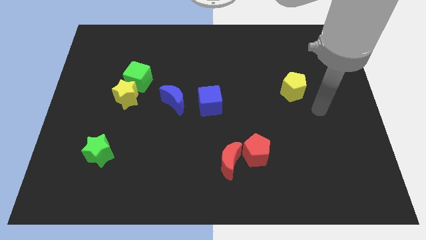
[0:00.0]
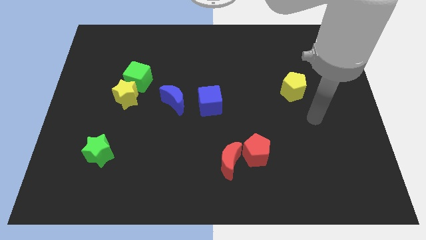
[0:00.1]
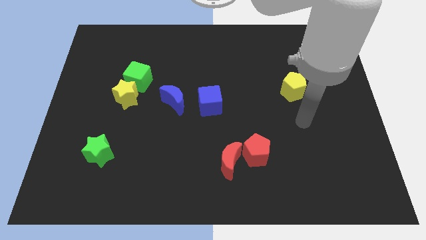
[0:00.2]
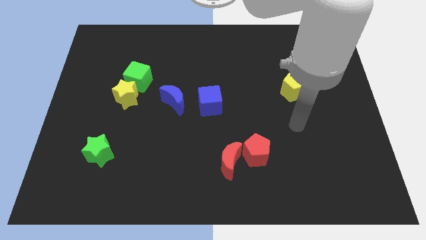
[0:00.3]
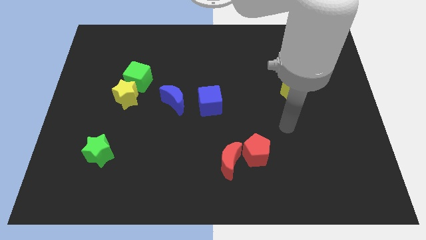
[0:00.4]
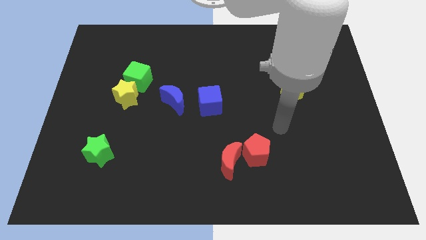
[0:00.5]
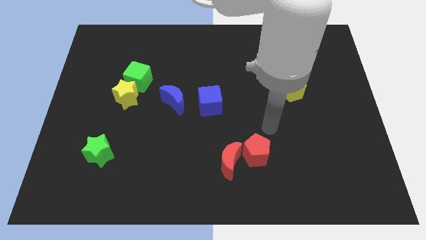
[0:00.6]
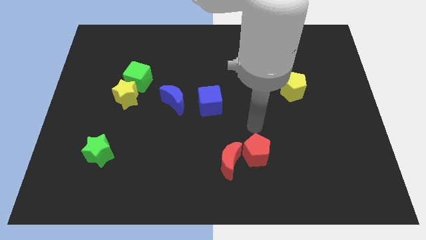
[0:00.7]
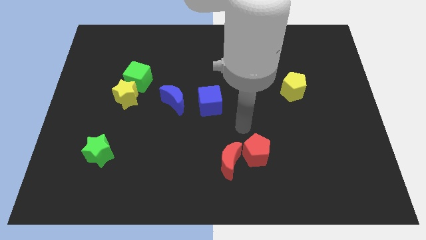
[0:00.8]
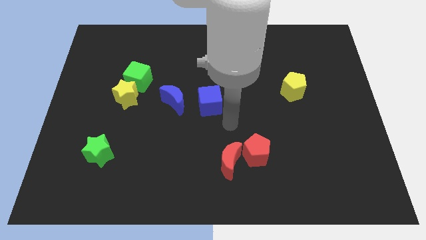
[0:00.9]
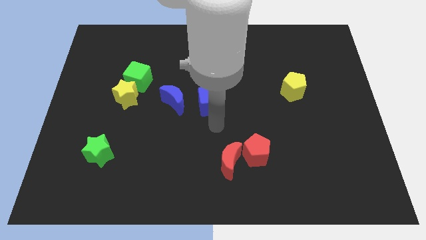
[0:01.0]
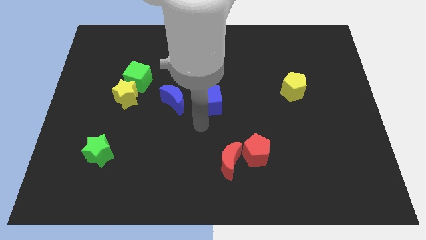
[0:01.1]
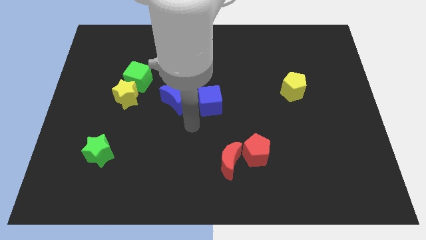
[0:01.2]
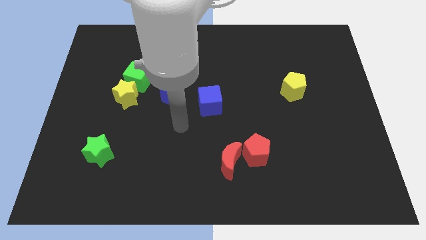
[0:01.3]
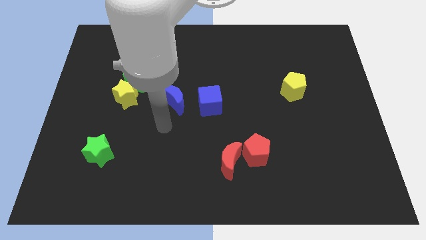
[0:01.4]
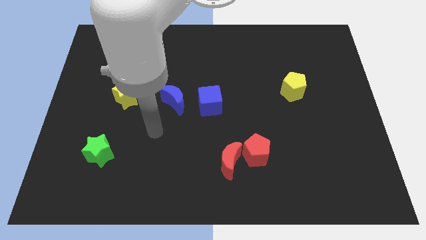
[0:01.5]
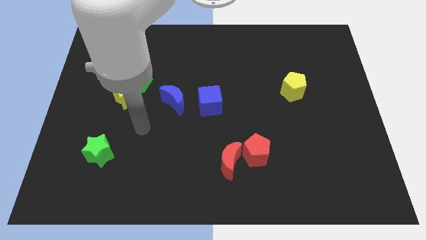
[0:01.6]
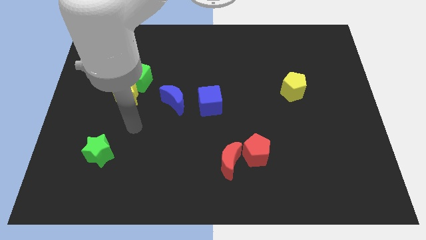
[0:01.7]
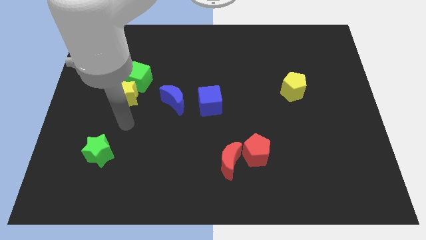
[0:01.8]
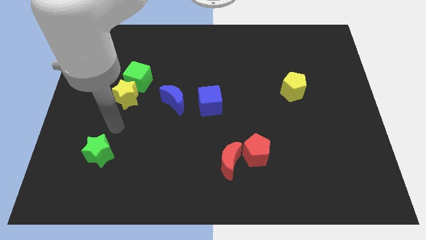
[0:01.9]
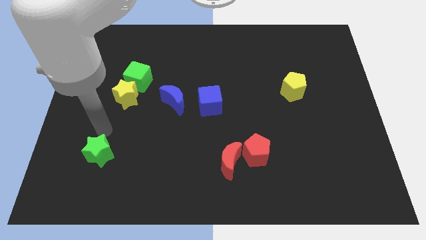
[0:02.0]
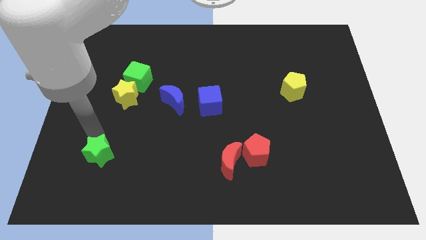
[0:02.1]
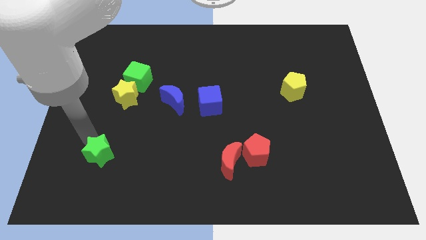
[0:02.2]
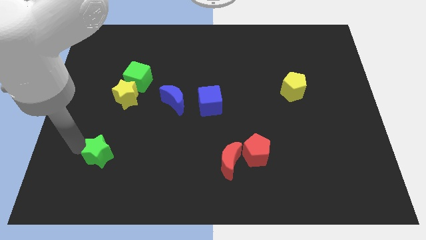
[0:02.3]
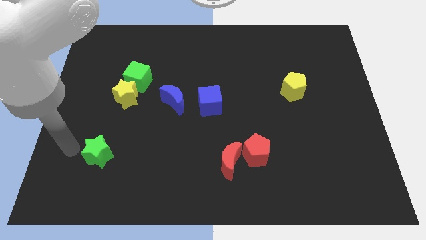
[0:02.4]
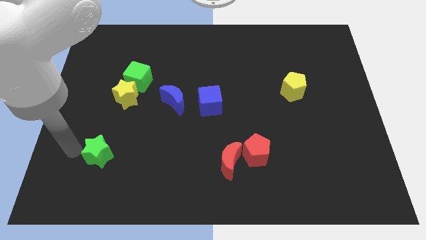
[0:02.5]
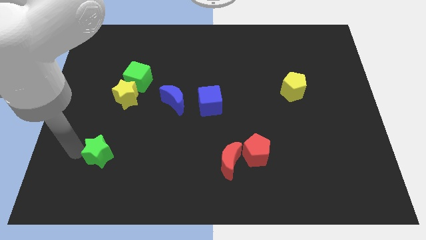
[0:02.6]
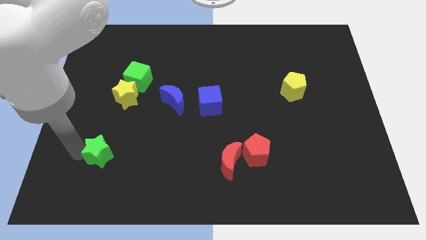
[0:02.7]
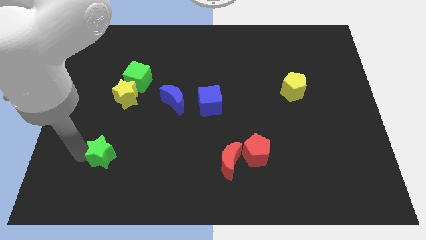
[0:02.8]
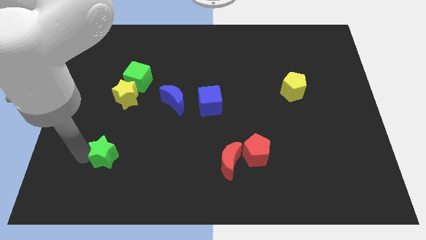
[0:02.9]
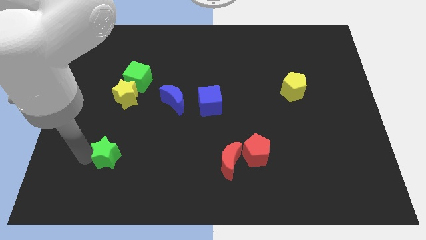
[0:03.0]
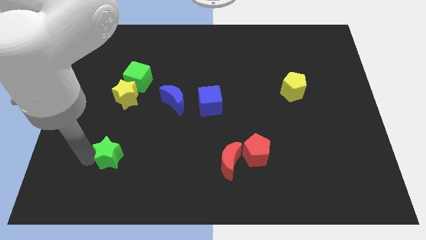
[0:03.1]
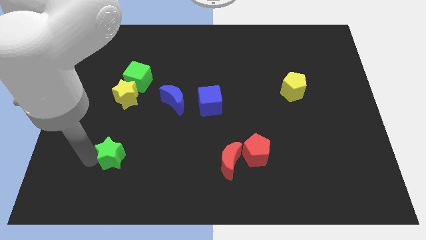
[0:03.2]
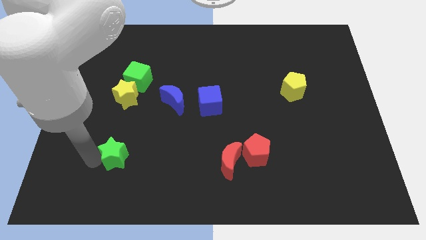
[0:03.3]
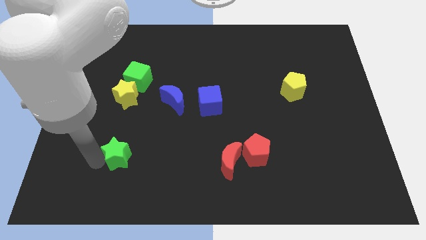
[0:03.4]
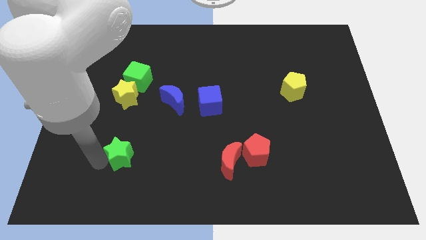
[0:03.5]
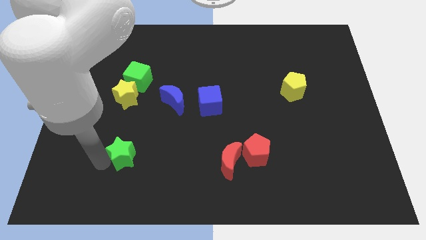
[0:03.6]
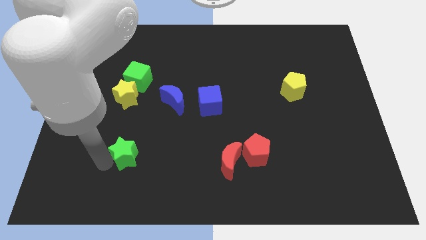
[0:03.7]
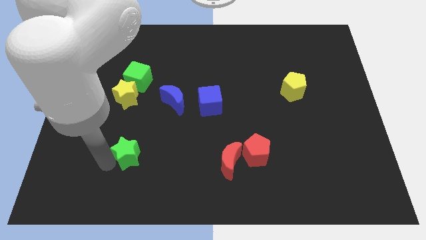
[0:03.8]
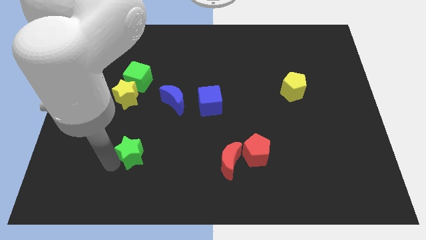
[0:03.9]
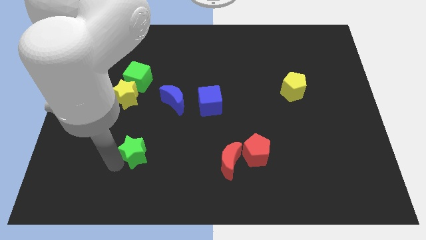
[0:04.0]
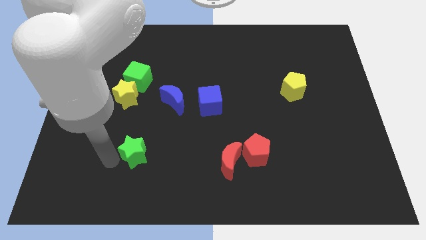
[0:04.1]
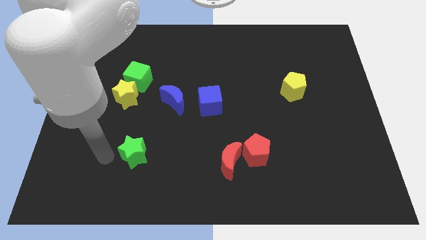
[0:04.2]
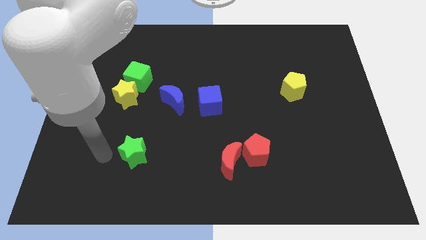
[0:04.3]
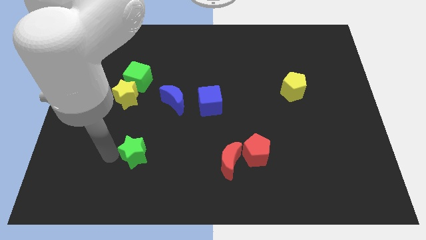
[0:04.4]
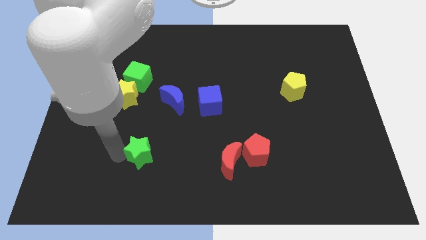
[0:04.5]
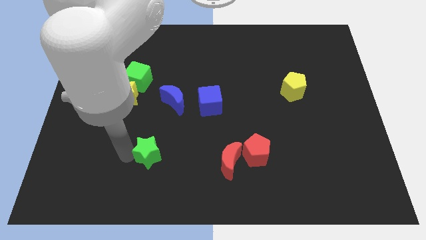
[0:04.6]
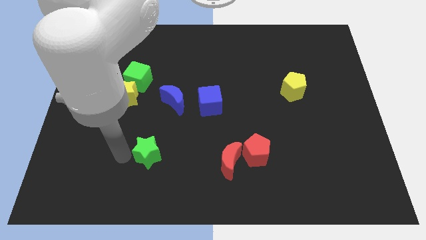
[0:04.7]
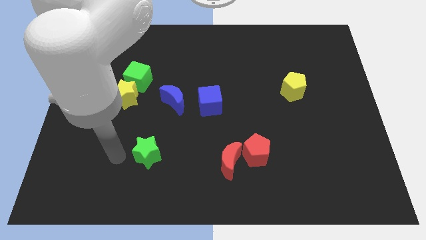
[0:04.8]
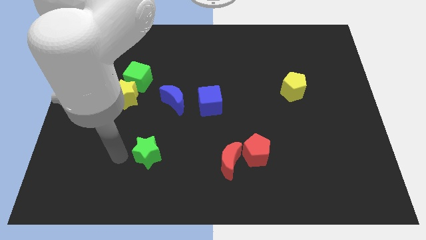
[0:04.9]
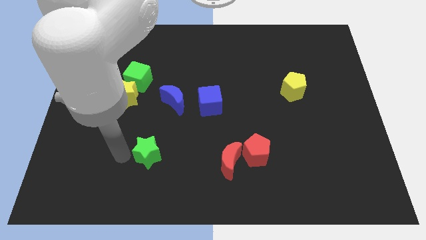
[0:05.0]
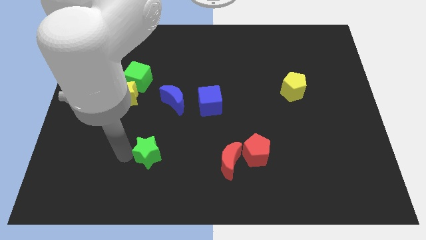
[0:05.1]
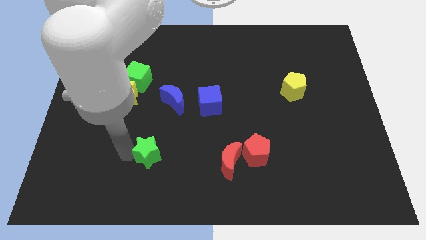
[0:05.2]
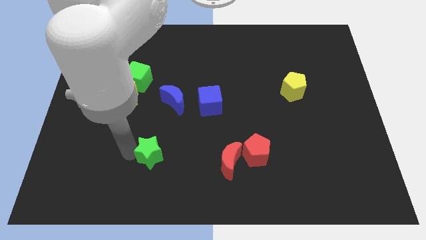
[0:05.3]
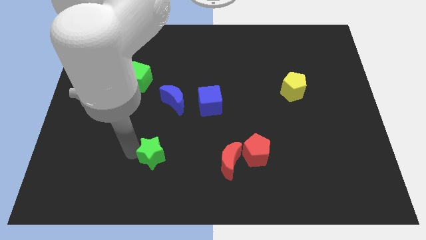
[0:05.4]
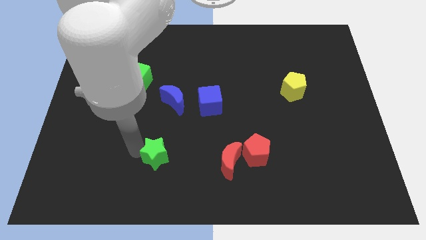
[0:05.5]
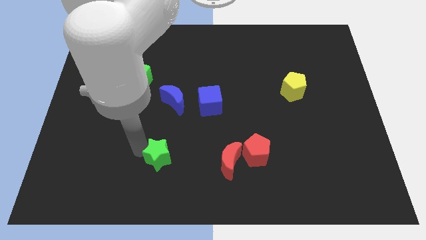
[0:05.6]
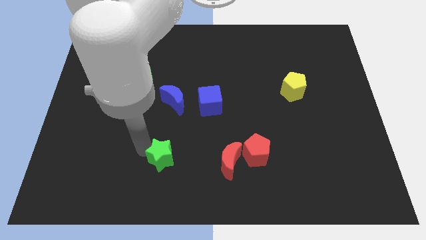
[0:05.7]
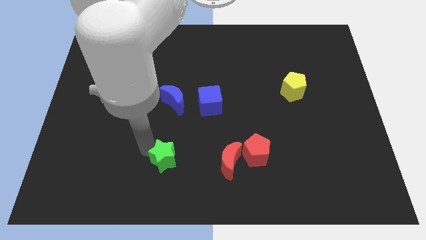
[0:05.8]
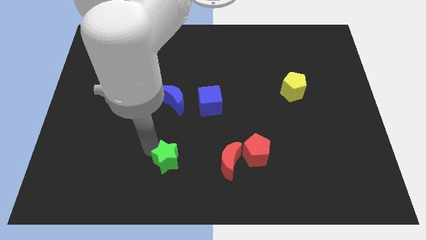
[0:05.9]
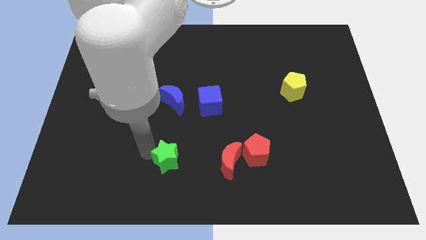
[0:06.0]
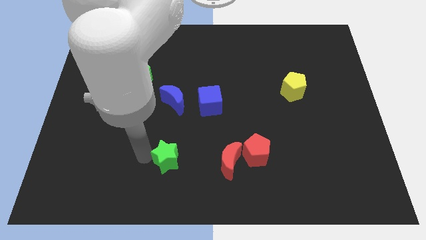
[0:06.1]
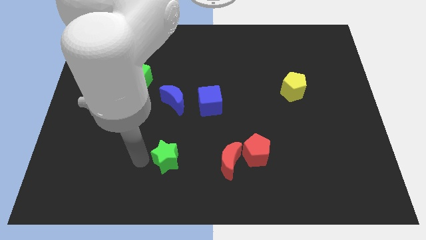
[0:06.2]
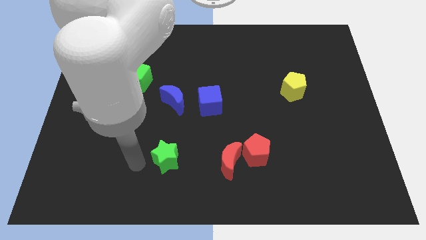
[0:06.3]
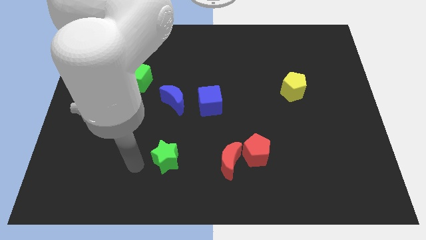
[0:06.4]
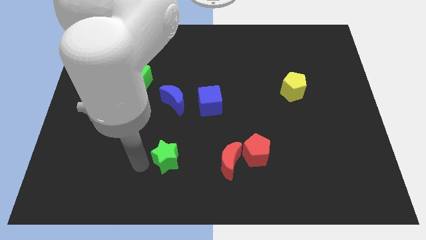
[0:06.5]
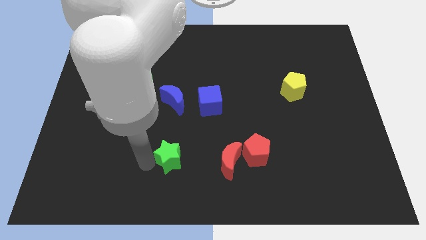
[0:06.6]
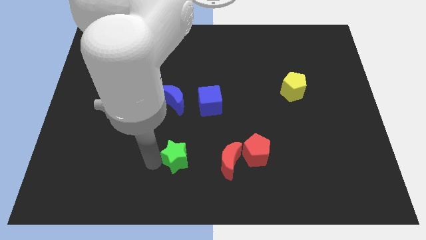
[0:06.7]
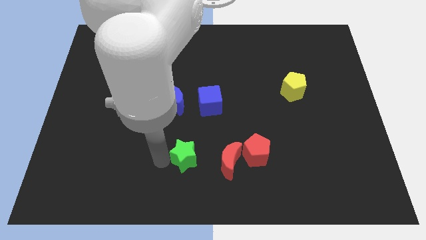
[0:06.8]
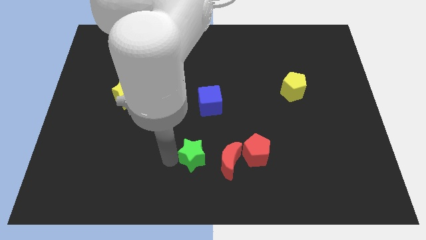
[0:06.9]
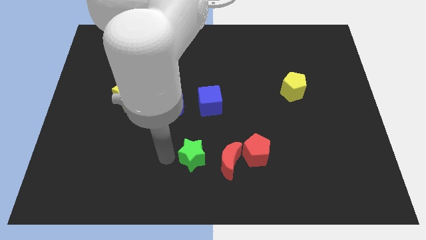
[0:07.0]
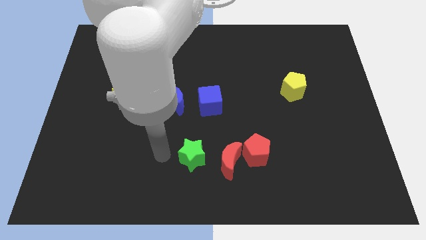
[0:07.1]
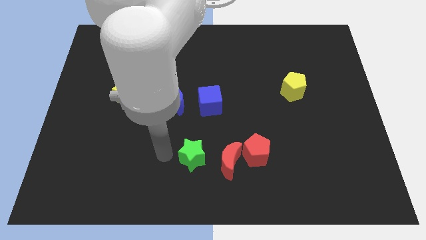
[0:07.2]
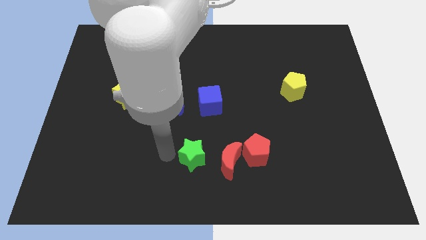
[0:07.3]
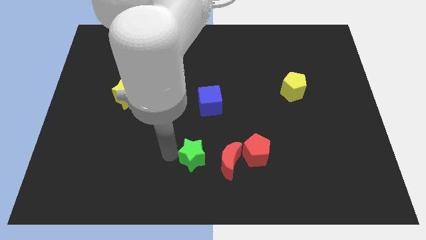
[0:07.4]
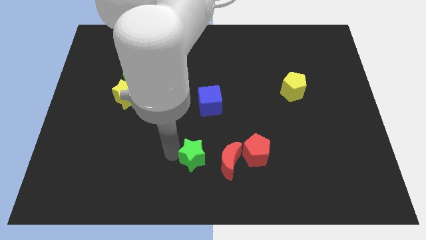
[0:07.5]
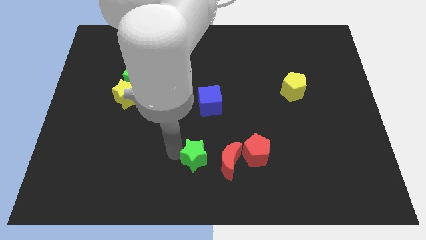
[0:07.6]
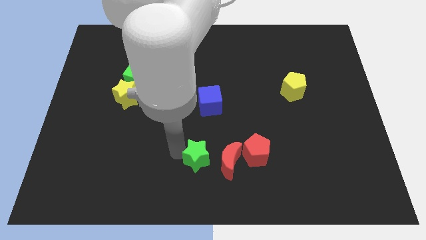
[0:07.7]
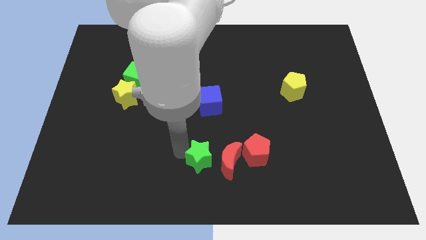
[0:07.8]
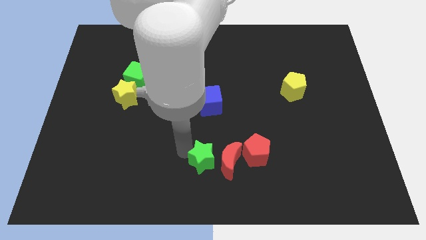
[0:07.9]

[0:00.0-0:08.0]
move the green star close to the red moon
